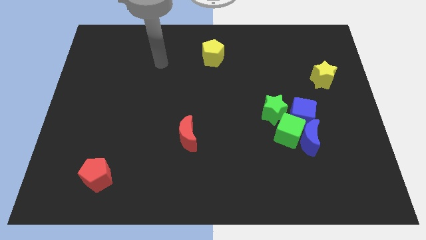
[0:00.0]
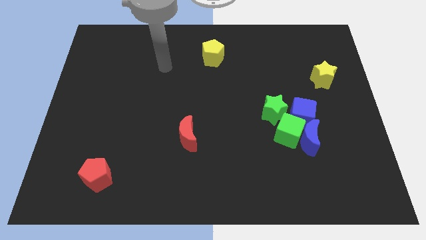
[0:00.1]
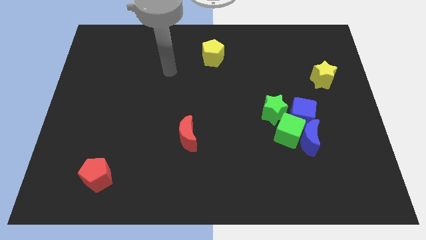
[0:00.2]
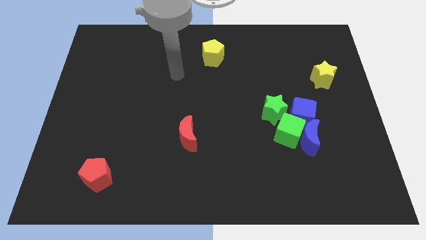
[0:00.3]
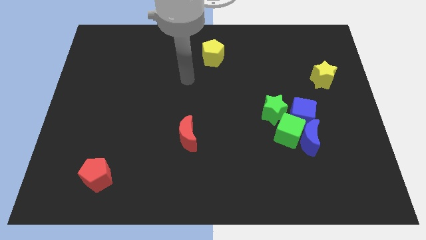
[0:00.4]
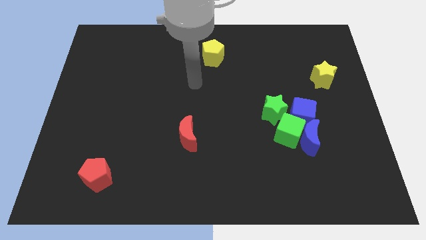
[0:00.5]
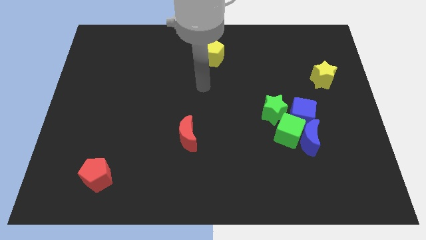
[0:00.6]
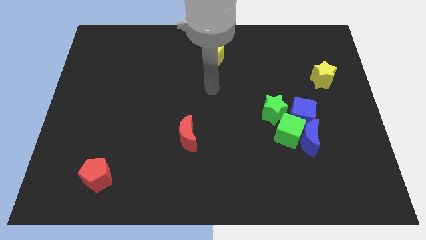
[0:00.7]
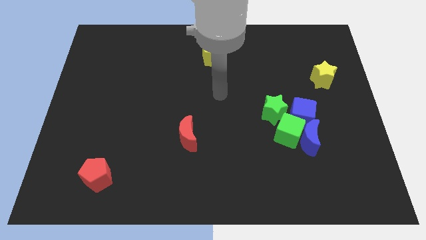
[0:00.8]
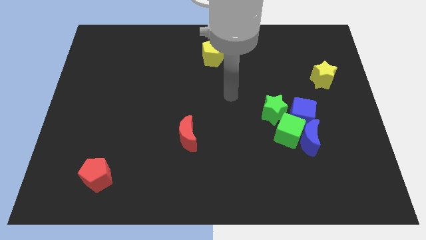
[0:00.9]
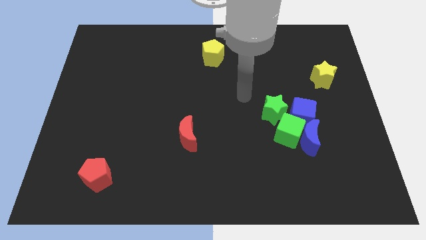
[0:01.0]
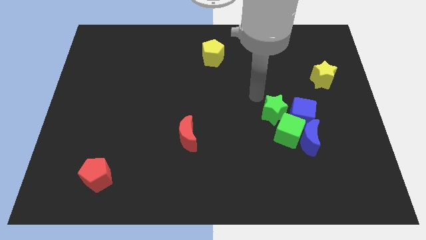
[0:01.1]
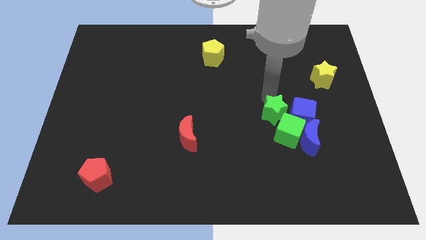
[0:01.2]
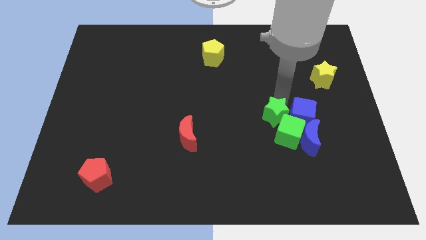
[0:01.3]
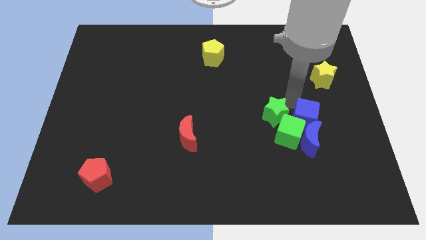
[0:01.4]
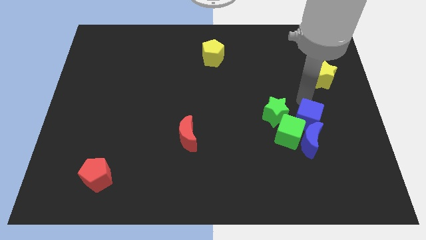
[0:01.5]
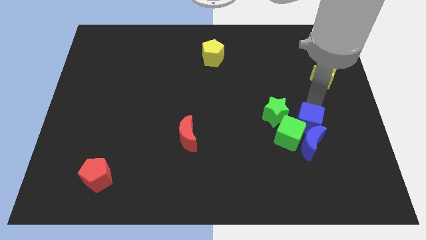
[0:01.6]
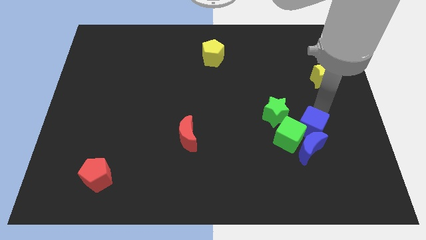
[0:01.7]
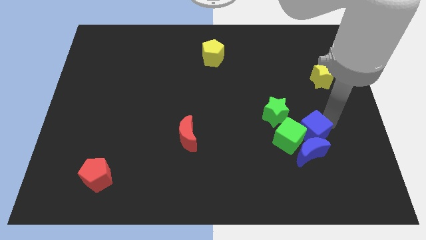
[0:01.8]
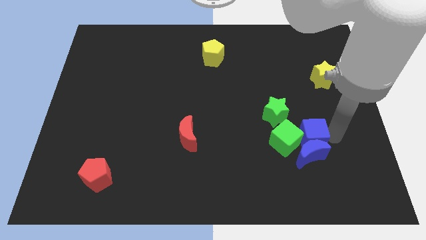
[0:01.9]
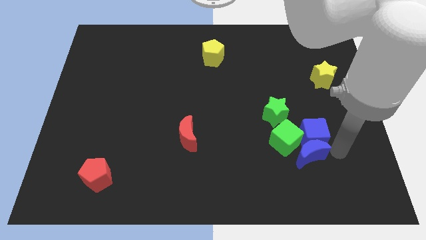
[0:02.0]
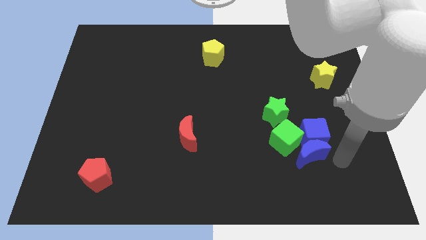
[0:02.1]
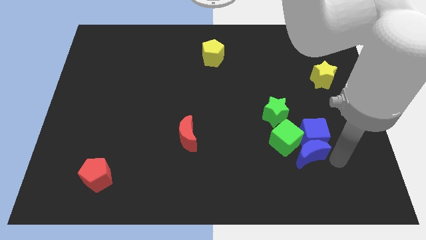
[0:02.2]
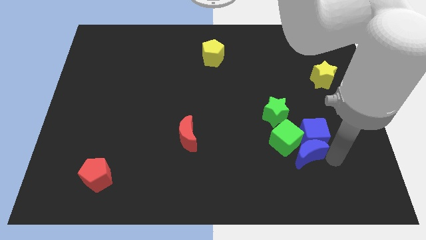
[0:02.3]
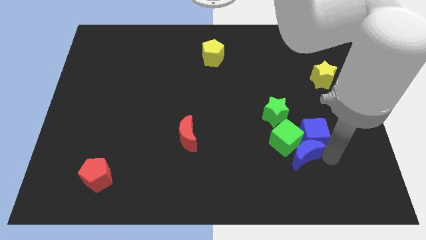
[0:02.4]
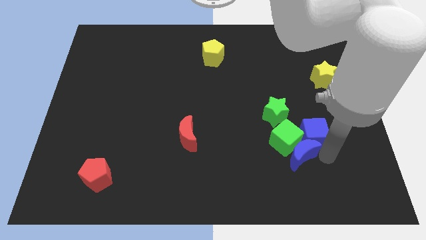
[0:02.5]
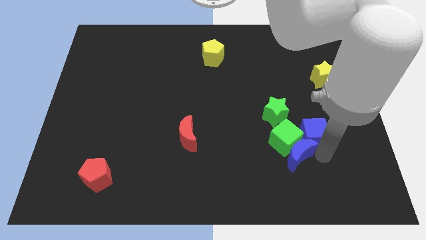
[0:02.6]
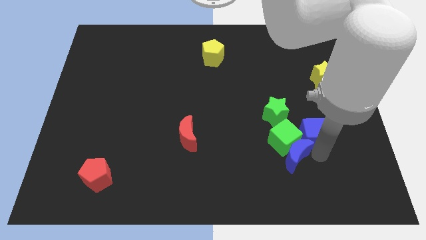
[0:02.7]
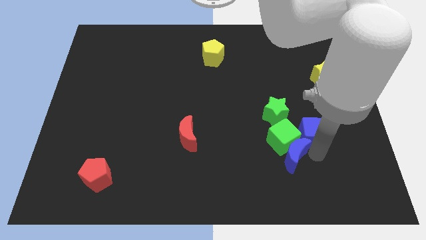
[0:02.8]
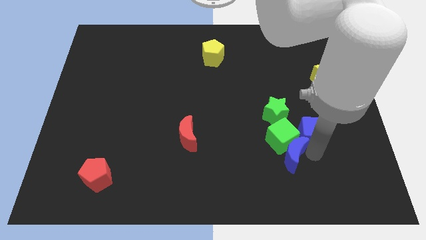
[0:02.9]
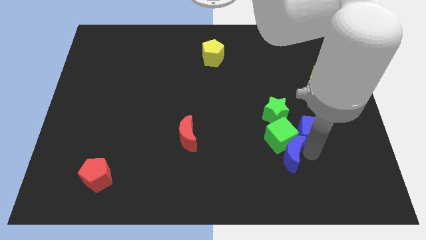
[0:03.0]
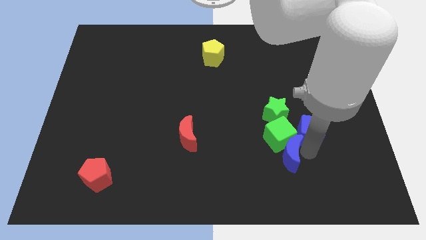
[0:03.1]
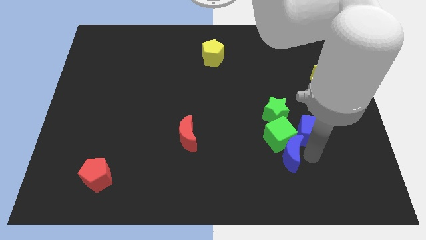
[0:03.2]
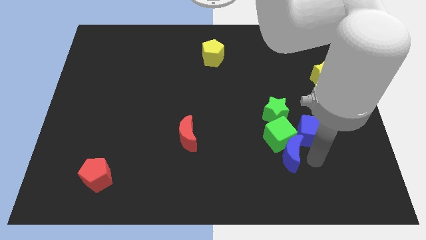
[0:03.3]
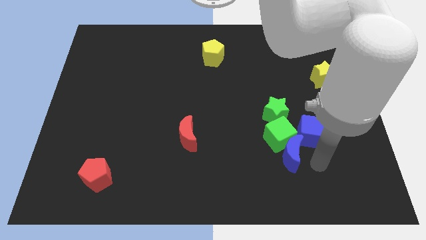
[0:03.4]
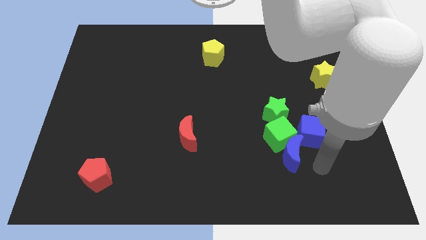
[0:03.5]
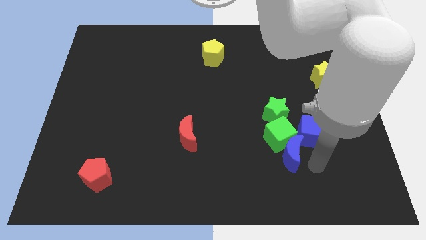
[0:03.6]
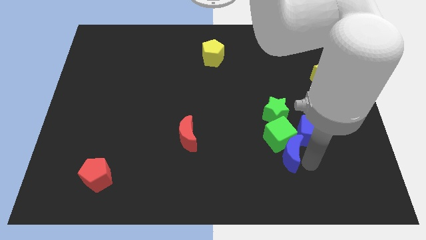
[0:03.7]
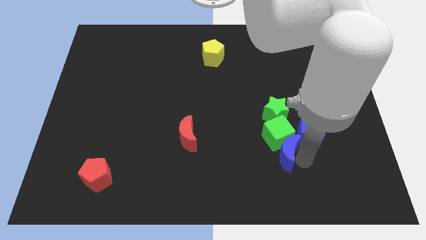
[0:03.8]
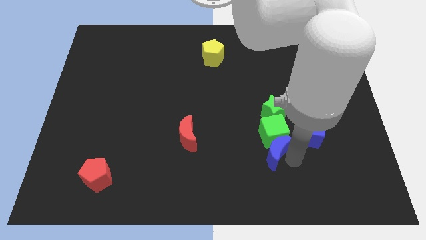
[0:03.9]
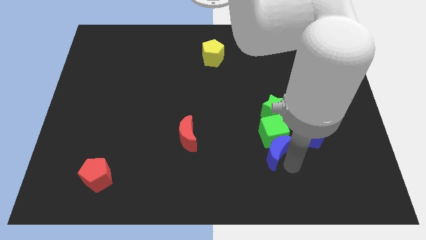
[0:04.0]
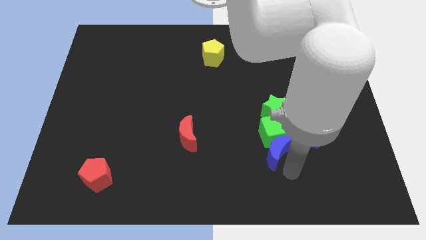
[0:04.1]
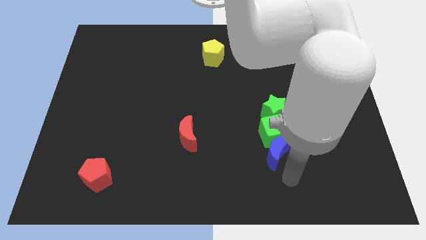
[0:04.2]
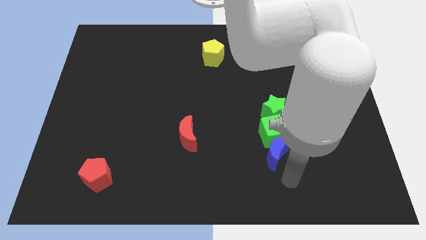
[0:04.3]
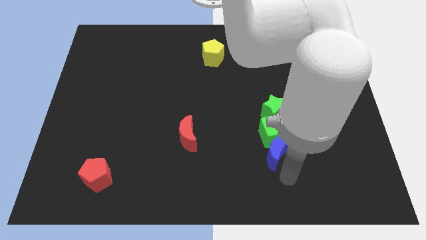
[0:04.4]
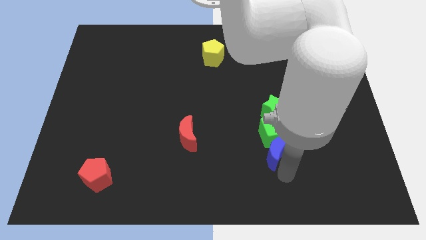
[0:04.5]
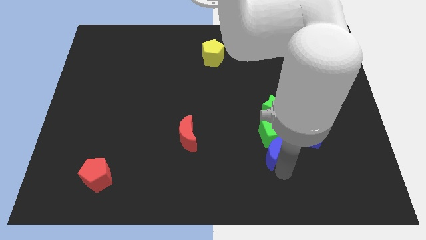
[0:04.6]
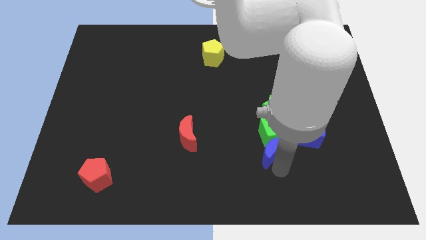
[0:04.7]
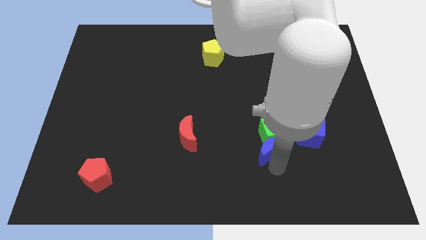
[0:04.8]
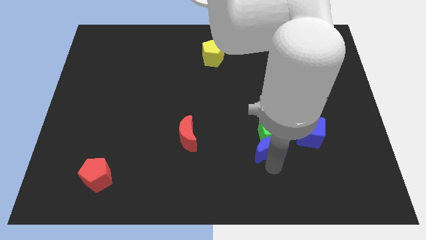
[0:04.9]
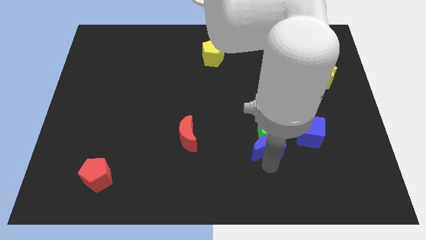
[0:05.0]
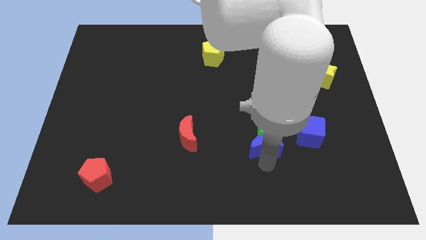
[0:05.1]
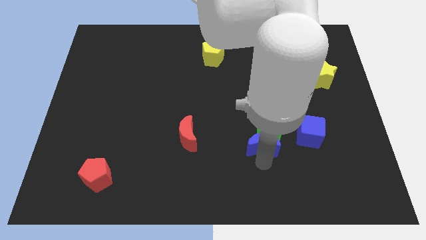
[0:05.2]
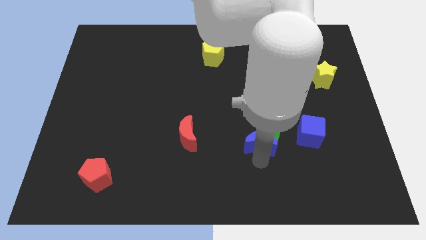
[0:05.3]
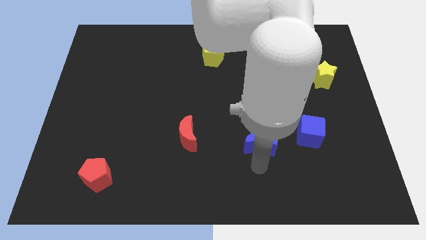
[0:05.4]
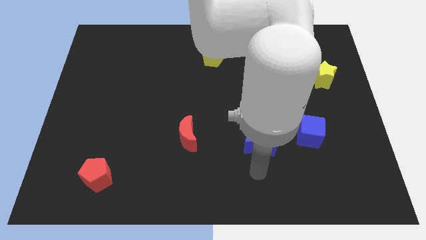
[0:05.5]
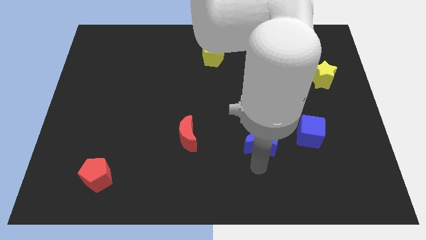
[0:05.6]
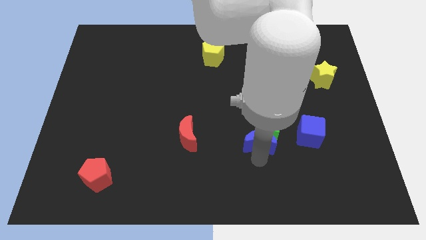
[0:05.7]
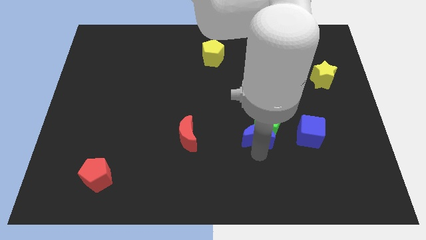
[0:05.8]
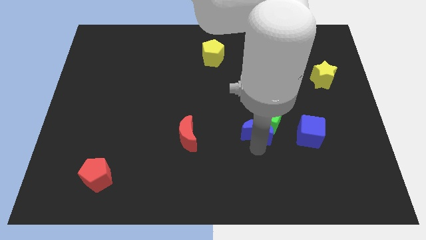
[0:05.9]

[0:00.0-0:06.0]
move the blue moon up and then left a little

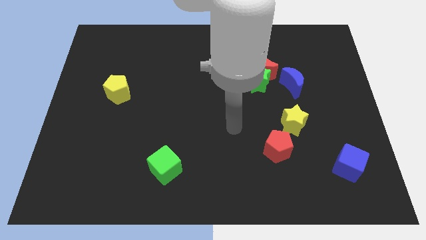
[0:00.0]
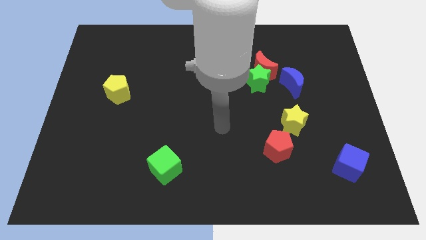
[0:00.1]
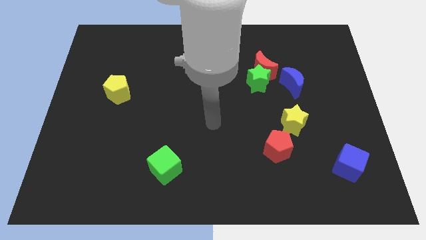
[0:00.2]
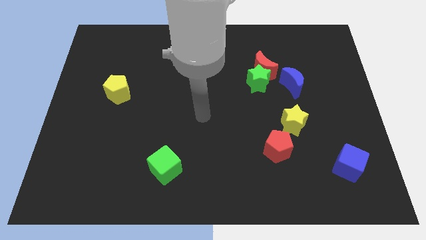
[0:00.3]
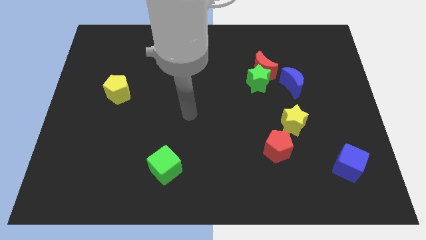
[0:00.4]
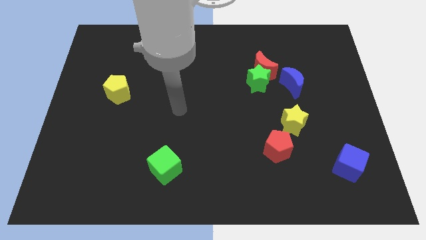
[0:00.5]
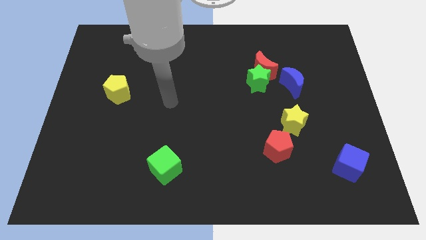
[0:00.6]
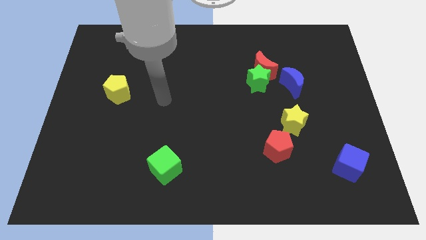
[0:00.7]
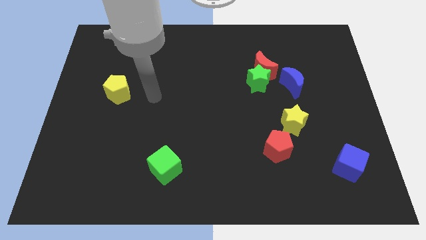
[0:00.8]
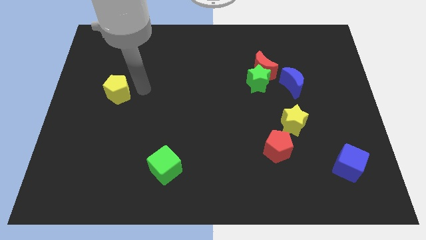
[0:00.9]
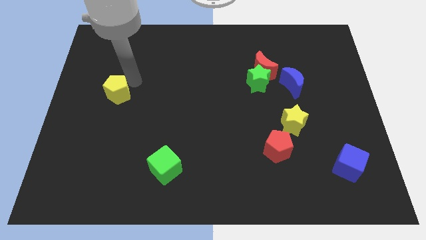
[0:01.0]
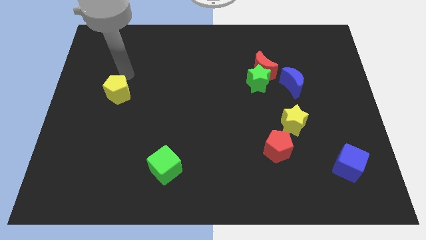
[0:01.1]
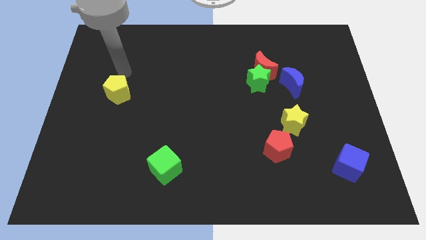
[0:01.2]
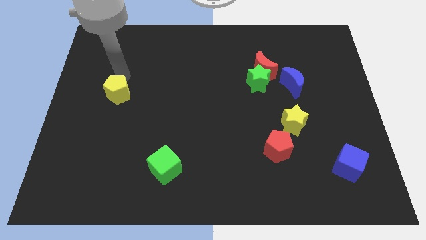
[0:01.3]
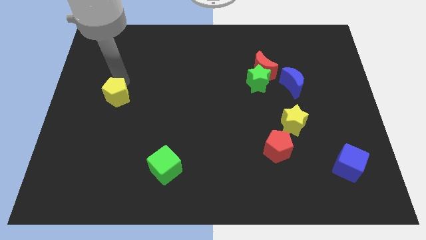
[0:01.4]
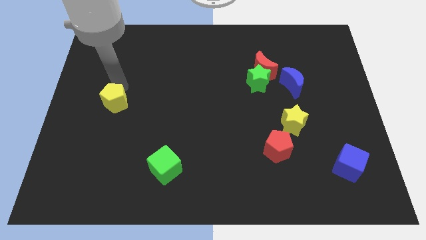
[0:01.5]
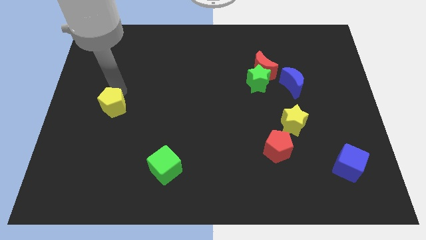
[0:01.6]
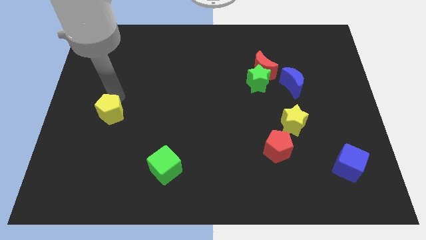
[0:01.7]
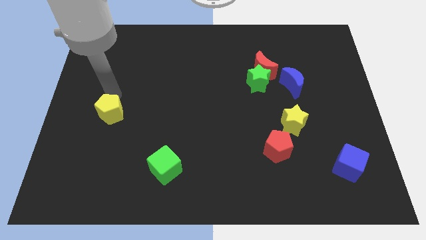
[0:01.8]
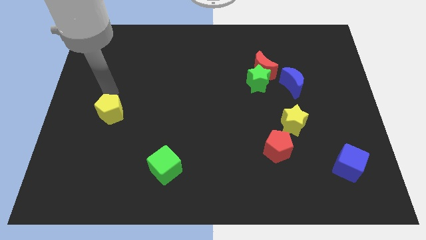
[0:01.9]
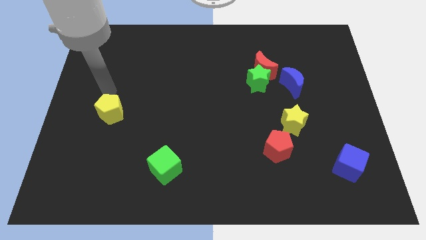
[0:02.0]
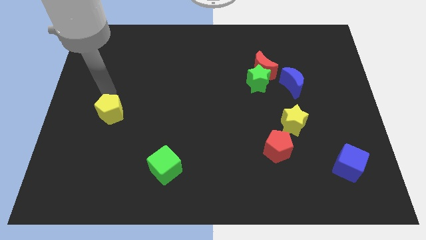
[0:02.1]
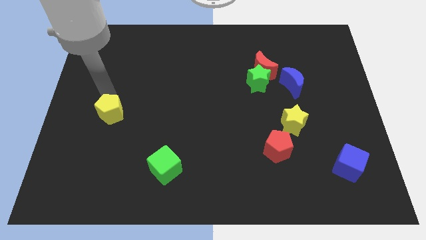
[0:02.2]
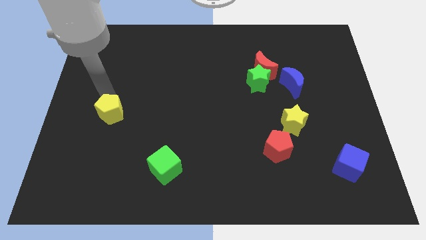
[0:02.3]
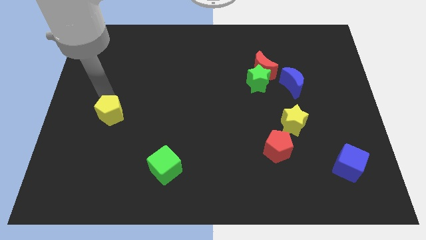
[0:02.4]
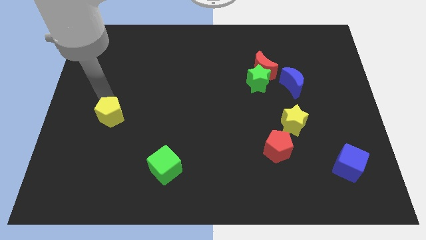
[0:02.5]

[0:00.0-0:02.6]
slide the yellow pentagon slightly downwards
